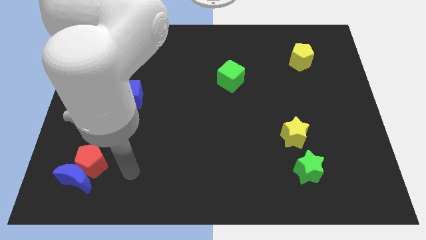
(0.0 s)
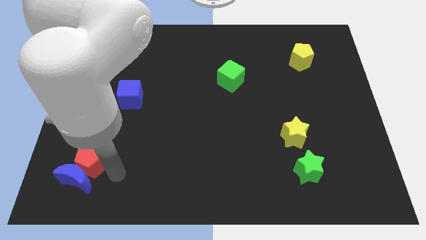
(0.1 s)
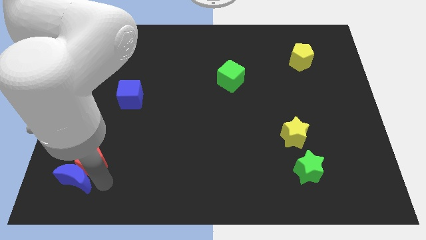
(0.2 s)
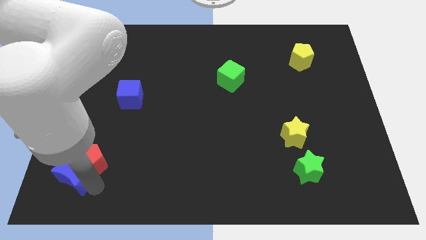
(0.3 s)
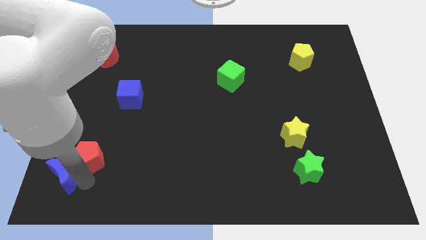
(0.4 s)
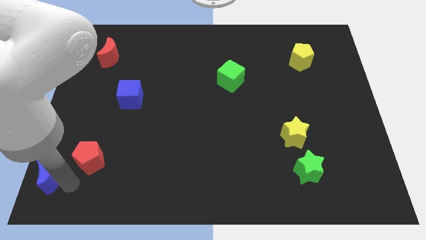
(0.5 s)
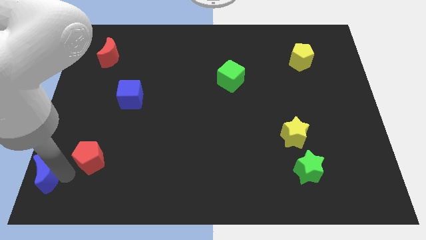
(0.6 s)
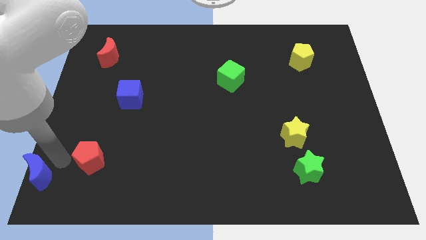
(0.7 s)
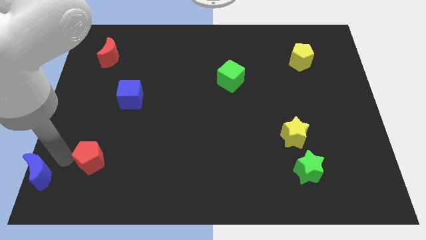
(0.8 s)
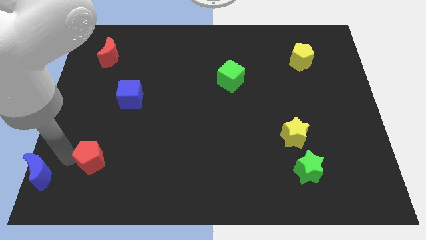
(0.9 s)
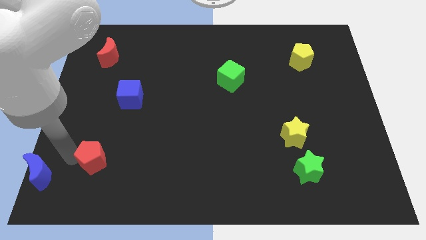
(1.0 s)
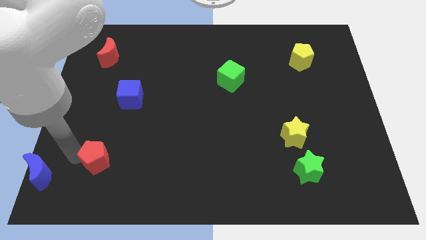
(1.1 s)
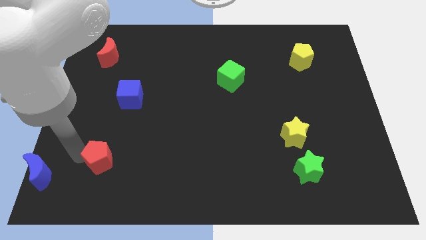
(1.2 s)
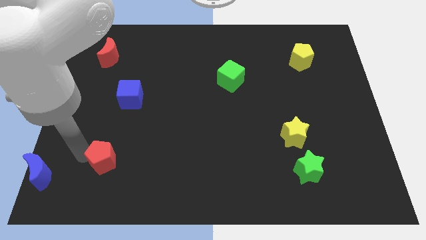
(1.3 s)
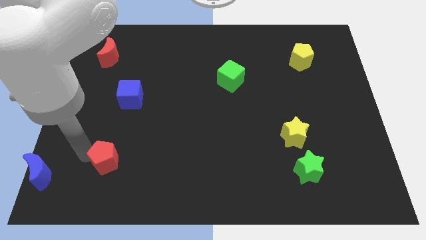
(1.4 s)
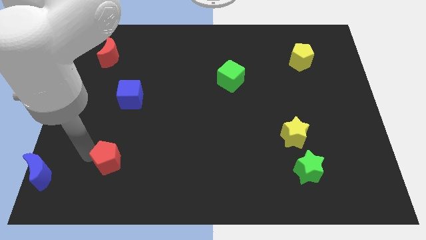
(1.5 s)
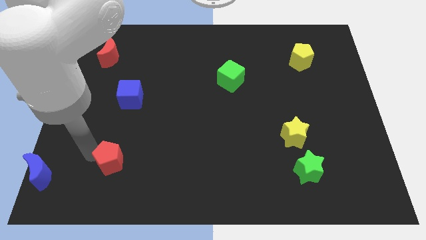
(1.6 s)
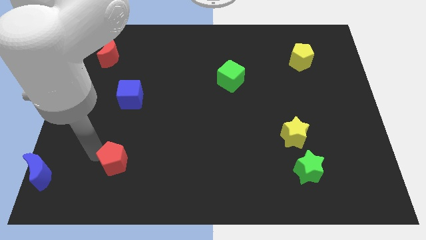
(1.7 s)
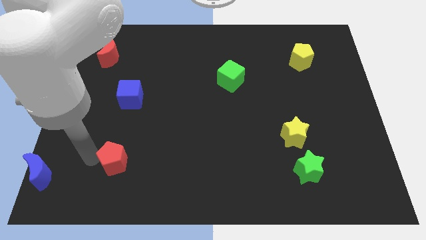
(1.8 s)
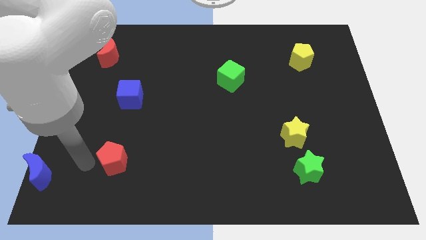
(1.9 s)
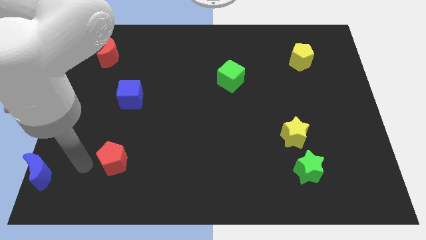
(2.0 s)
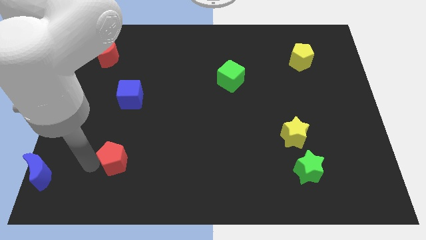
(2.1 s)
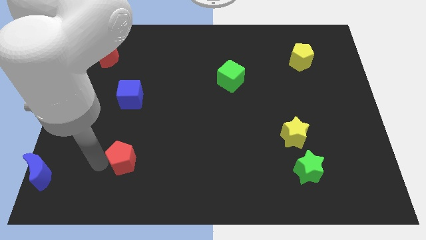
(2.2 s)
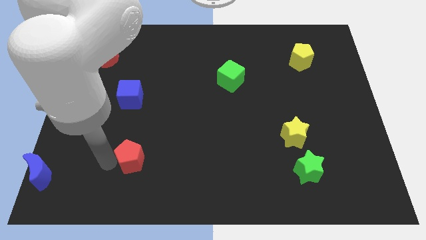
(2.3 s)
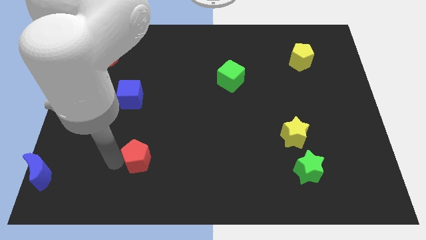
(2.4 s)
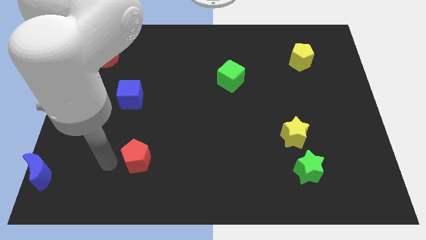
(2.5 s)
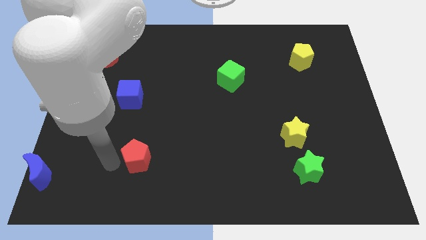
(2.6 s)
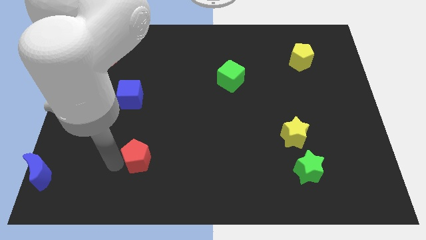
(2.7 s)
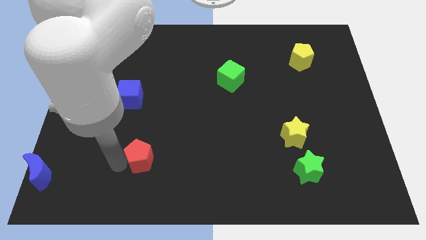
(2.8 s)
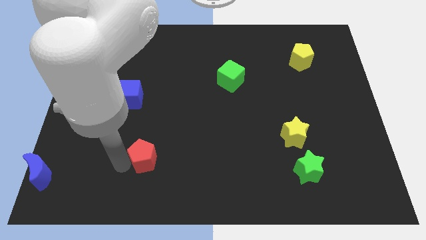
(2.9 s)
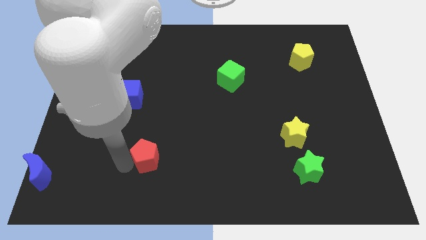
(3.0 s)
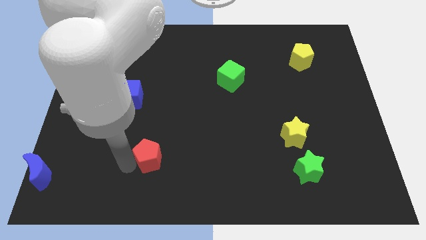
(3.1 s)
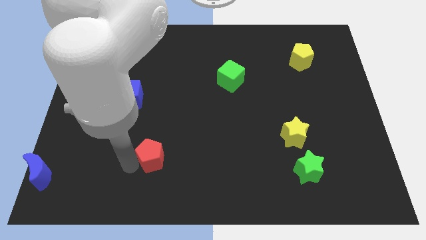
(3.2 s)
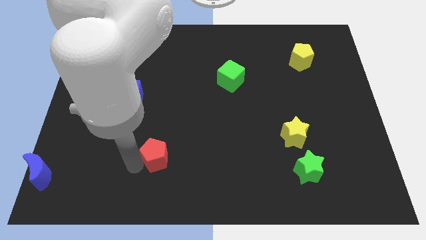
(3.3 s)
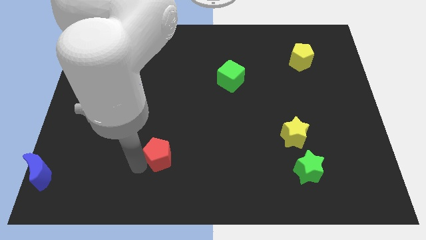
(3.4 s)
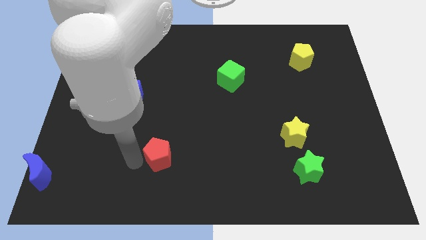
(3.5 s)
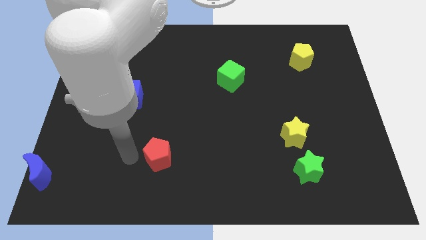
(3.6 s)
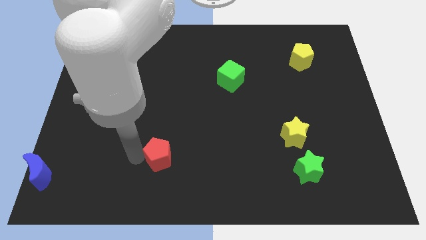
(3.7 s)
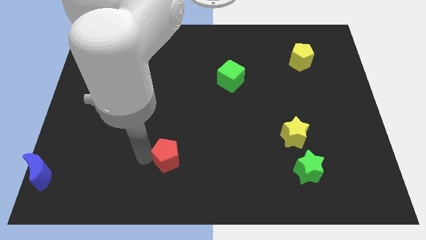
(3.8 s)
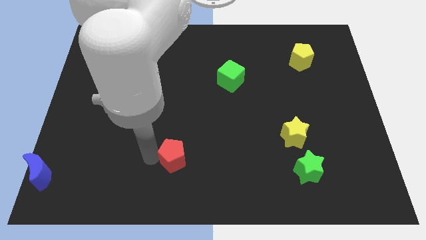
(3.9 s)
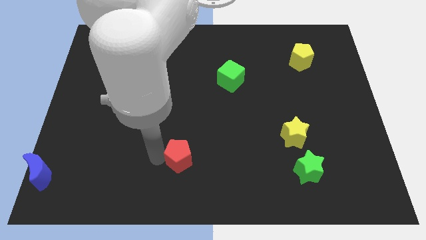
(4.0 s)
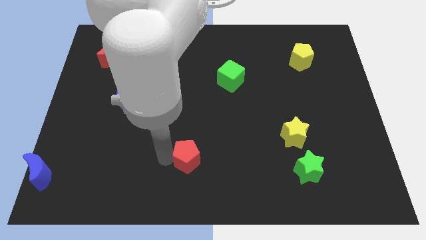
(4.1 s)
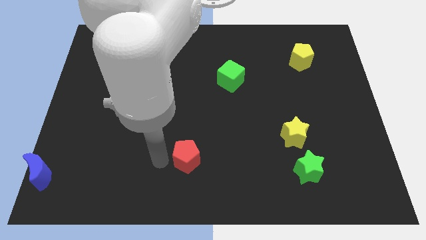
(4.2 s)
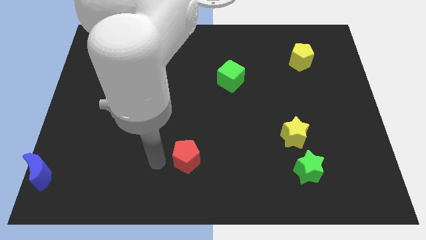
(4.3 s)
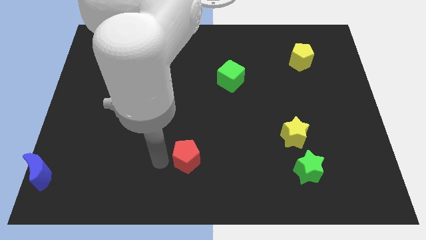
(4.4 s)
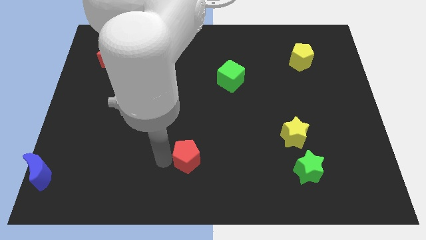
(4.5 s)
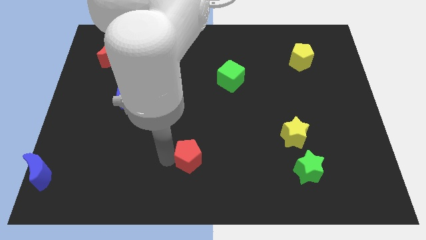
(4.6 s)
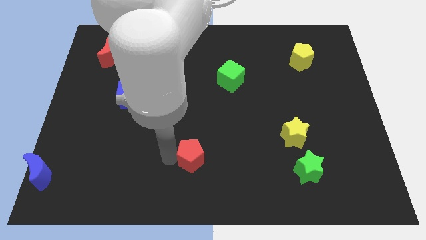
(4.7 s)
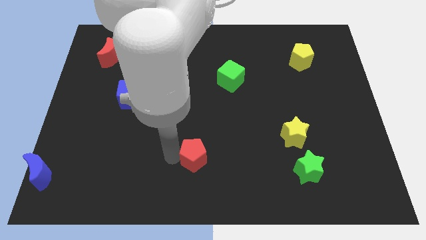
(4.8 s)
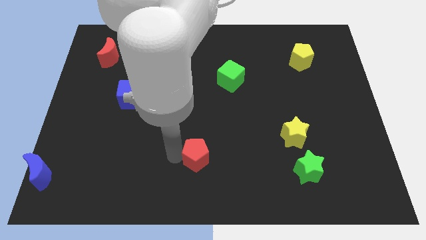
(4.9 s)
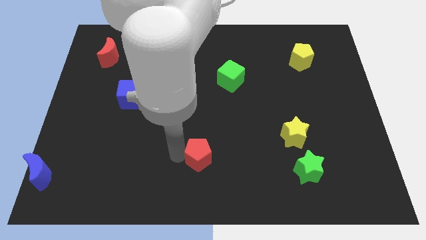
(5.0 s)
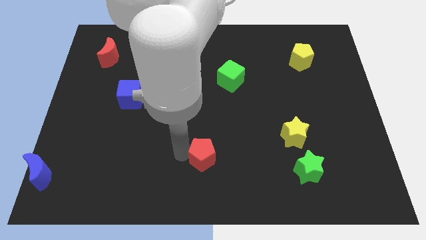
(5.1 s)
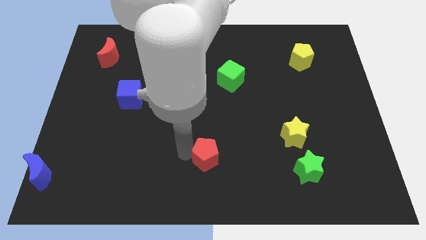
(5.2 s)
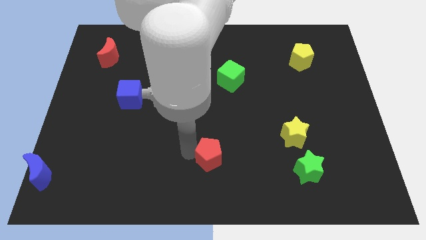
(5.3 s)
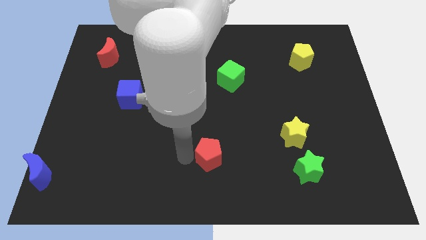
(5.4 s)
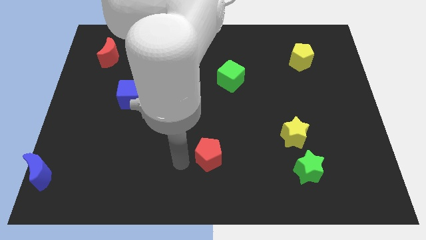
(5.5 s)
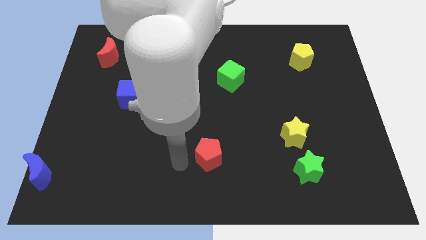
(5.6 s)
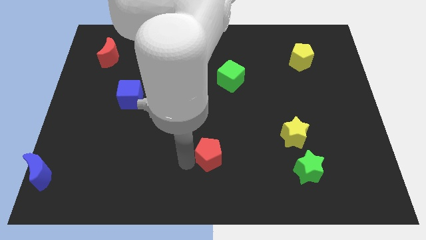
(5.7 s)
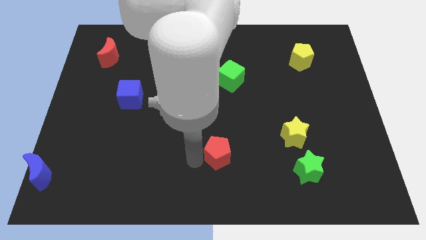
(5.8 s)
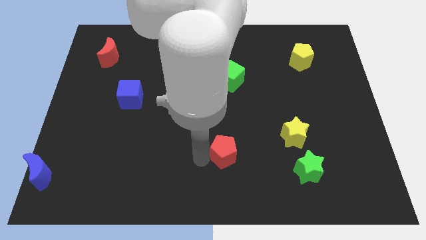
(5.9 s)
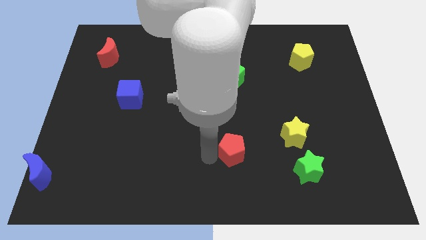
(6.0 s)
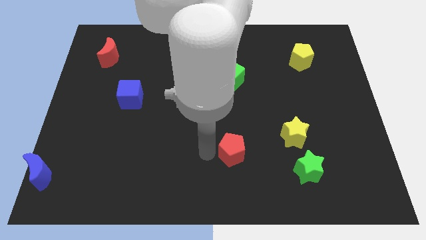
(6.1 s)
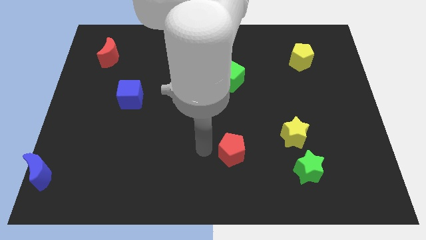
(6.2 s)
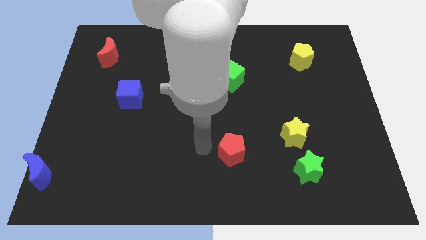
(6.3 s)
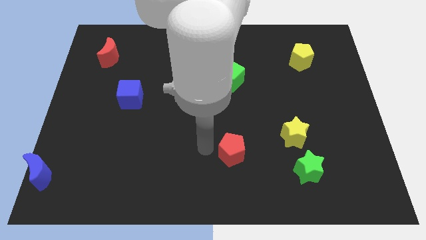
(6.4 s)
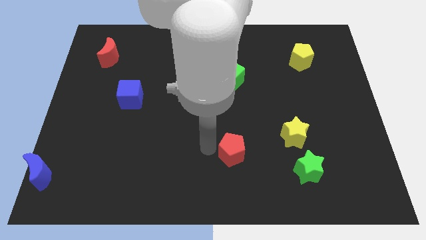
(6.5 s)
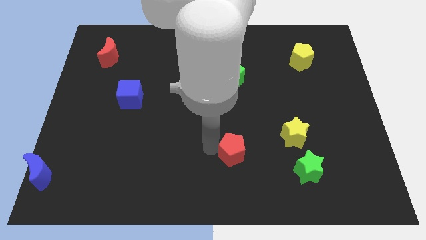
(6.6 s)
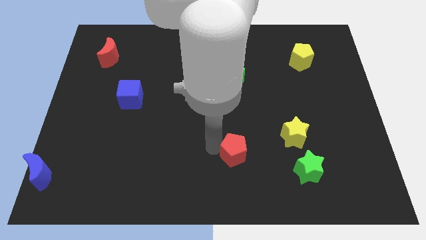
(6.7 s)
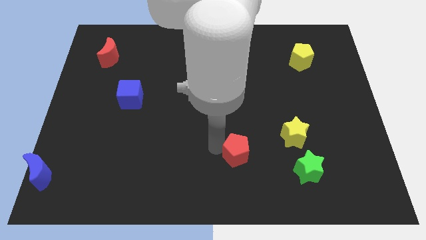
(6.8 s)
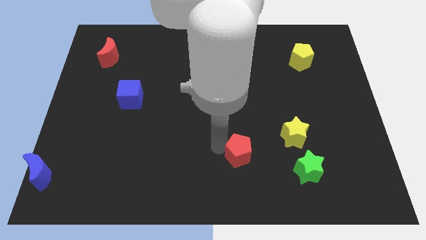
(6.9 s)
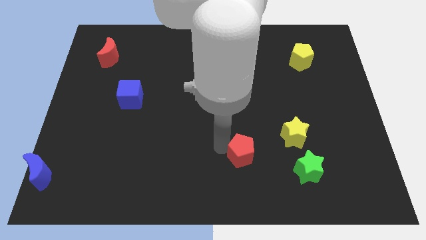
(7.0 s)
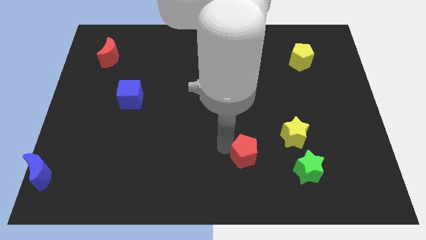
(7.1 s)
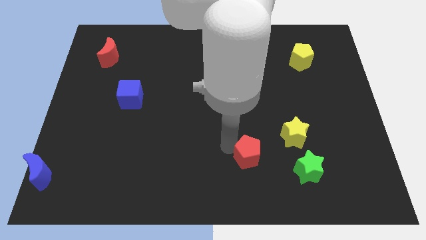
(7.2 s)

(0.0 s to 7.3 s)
slide the red pentagon to the bottom left of the yellow star
